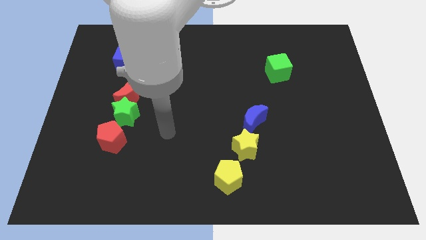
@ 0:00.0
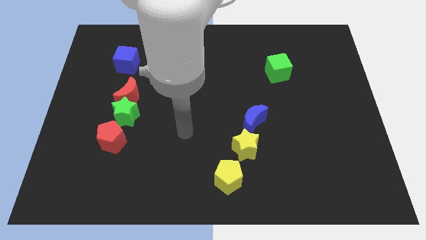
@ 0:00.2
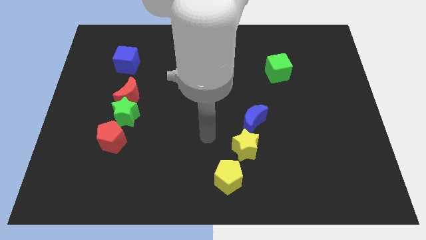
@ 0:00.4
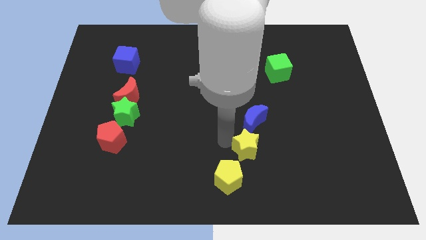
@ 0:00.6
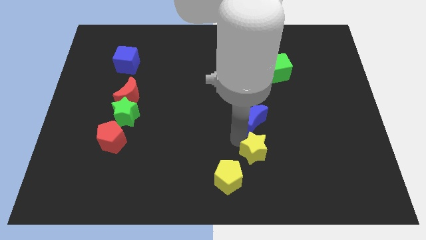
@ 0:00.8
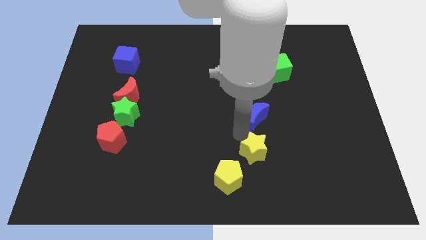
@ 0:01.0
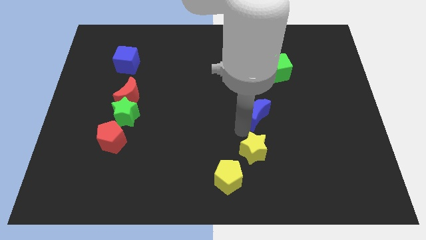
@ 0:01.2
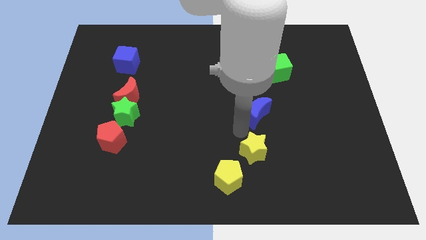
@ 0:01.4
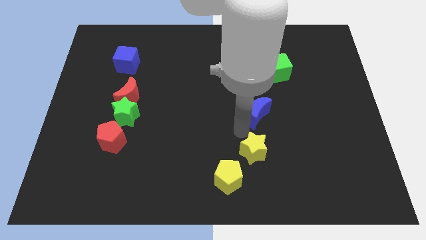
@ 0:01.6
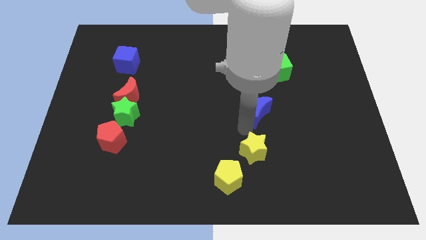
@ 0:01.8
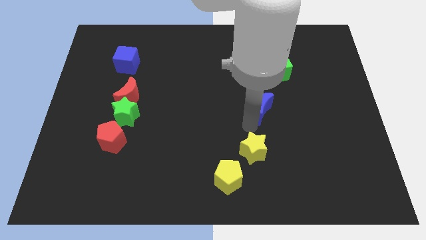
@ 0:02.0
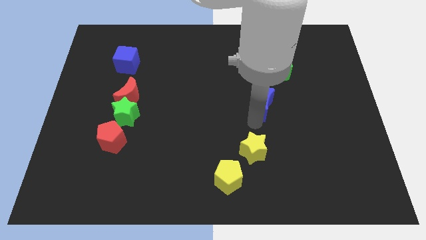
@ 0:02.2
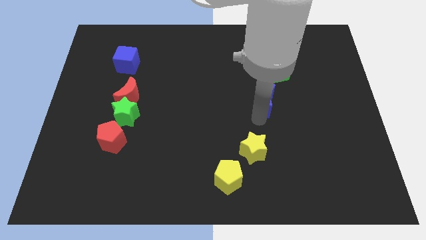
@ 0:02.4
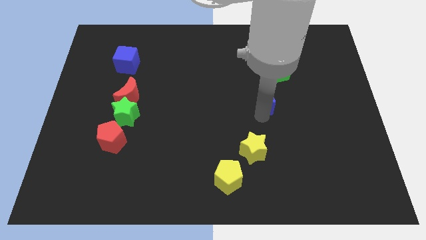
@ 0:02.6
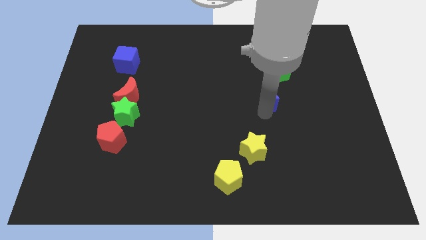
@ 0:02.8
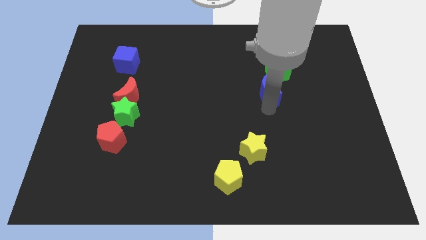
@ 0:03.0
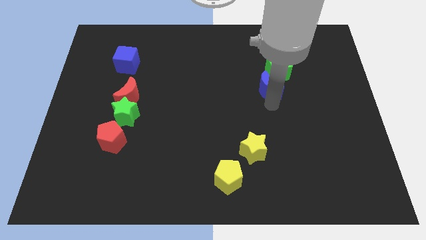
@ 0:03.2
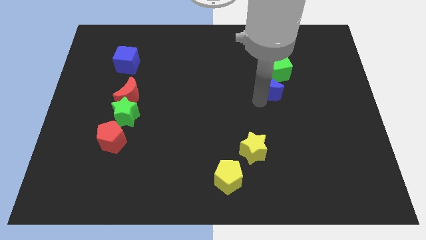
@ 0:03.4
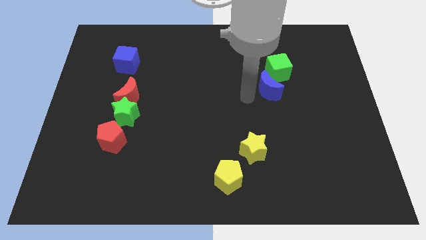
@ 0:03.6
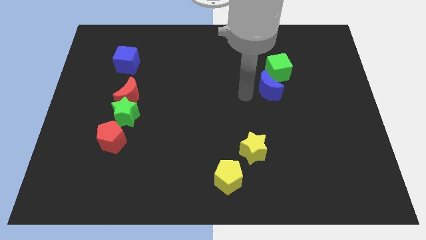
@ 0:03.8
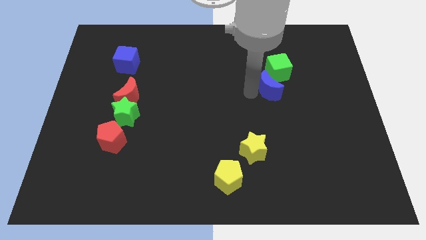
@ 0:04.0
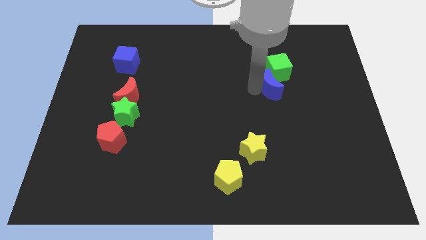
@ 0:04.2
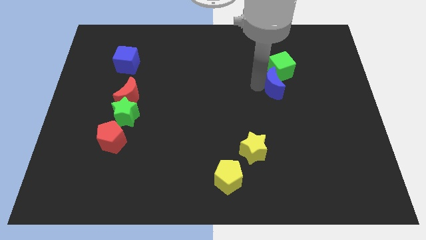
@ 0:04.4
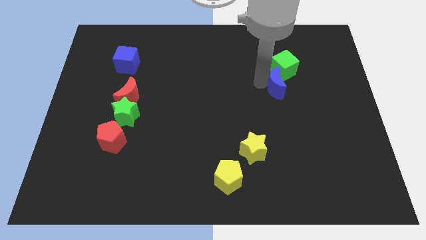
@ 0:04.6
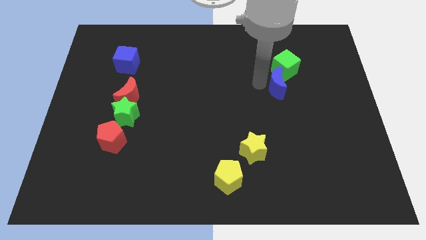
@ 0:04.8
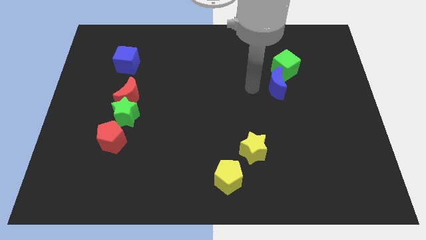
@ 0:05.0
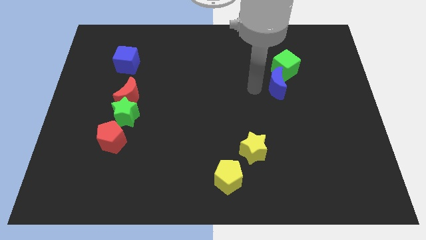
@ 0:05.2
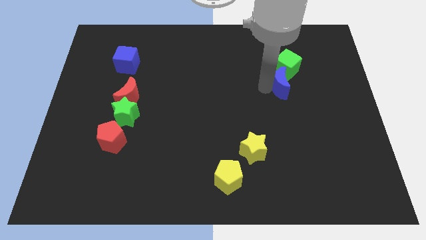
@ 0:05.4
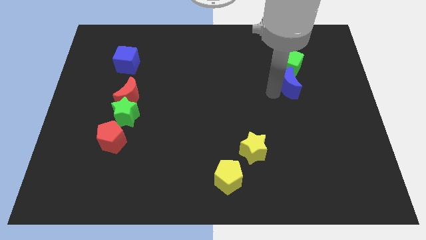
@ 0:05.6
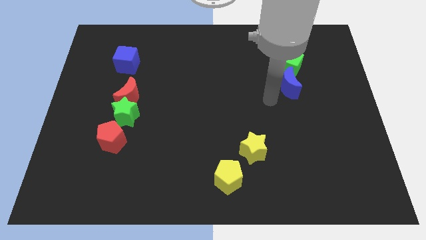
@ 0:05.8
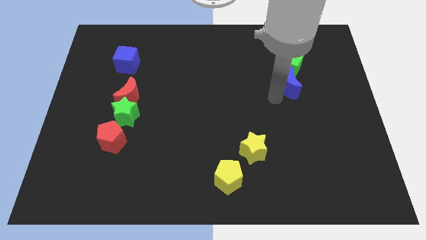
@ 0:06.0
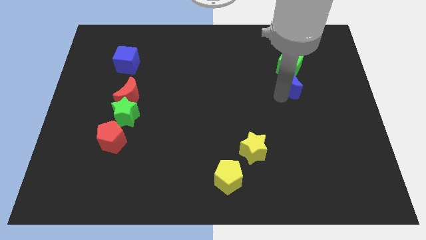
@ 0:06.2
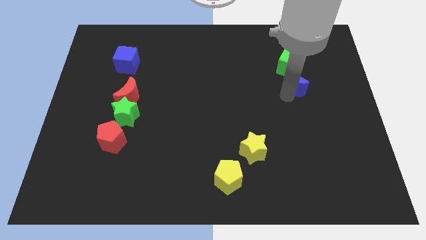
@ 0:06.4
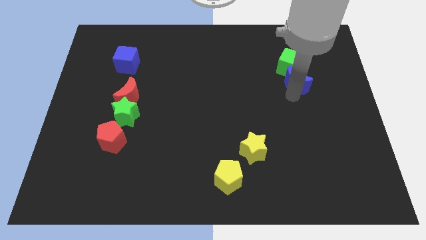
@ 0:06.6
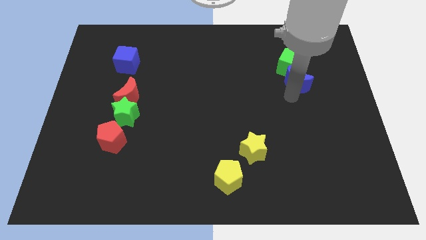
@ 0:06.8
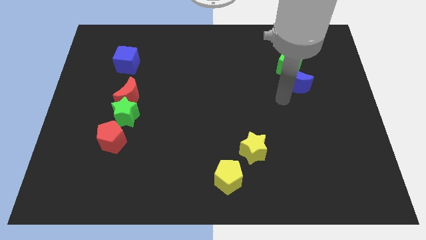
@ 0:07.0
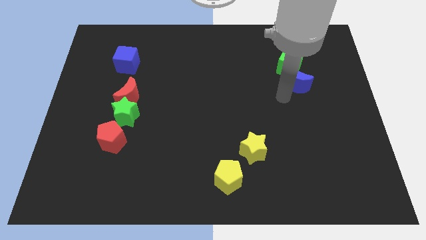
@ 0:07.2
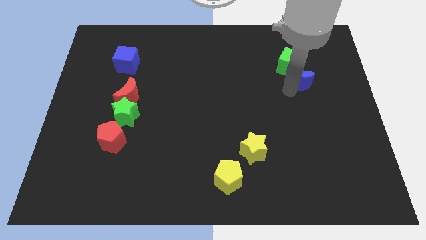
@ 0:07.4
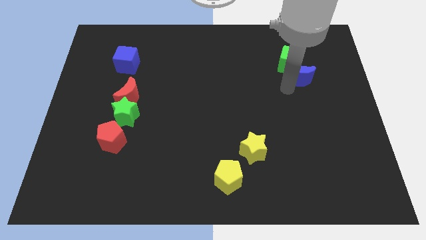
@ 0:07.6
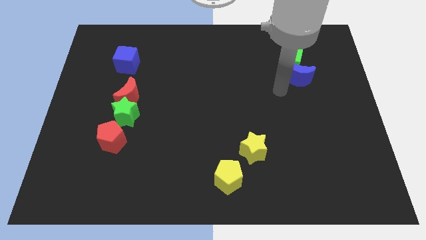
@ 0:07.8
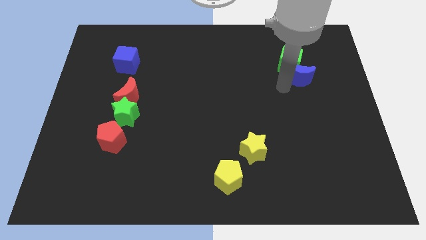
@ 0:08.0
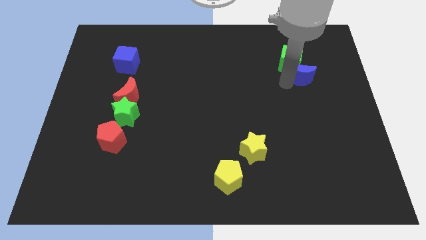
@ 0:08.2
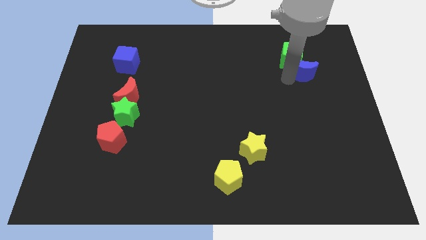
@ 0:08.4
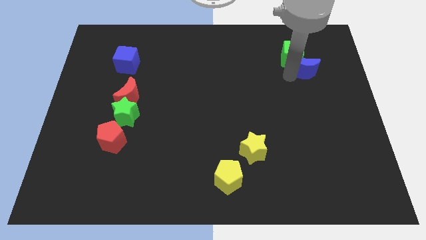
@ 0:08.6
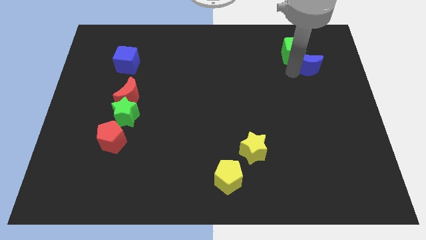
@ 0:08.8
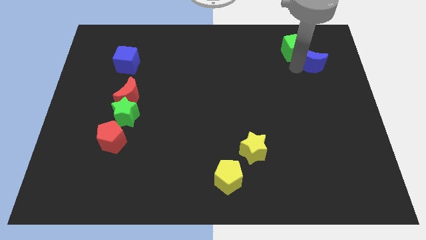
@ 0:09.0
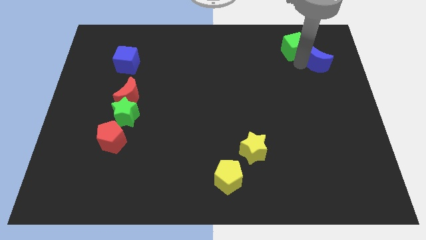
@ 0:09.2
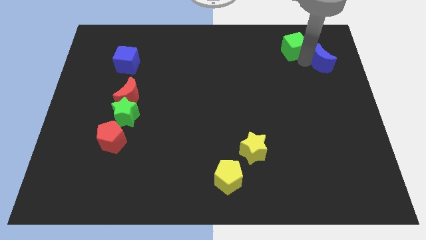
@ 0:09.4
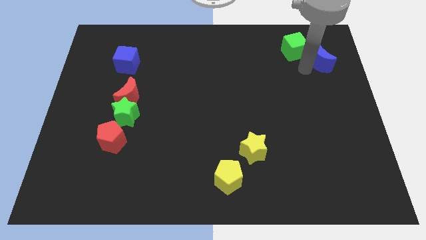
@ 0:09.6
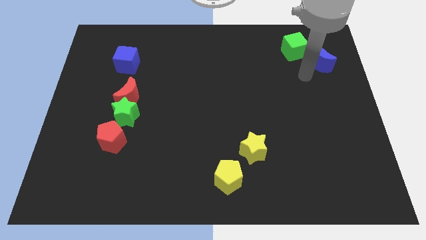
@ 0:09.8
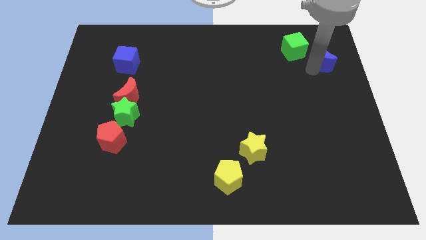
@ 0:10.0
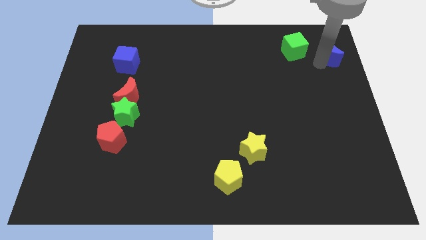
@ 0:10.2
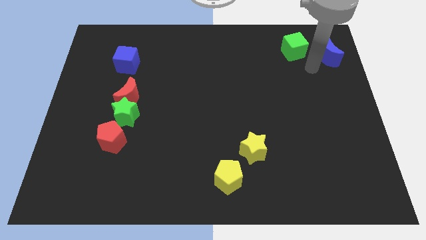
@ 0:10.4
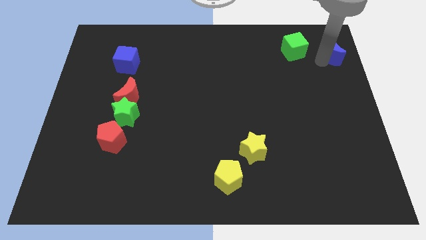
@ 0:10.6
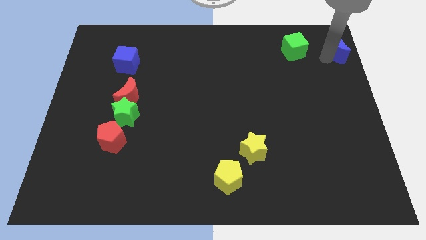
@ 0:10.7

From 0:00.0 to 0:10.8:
put the blue moon to the top right of the board

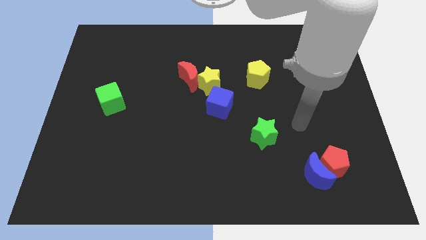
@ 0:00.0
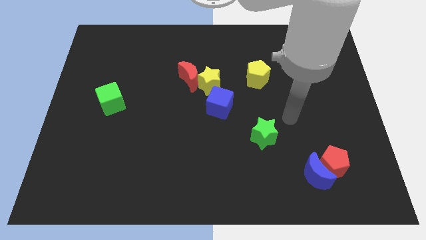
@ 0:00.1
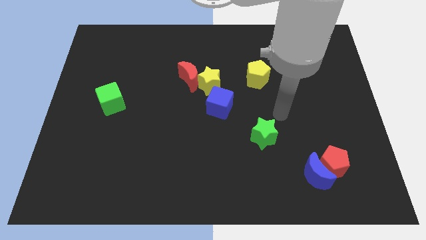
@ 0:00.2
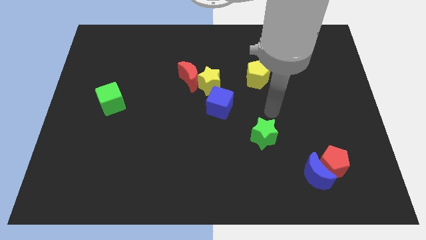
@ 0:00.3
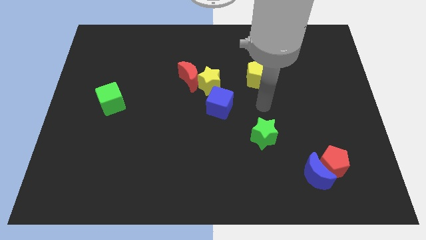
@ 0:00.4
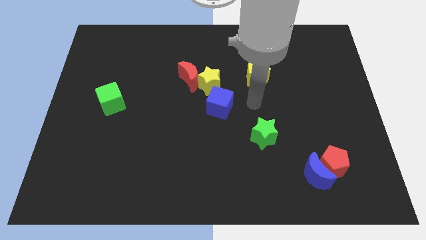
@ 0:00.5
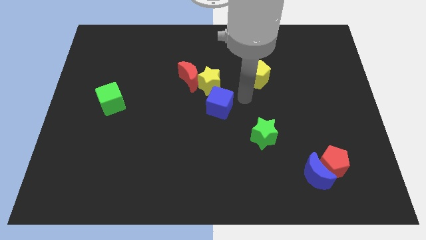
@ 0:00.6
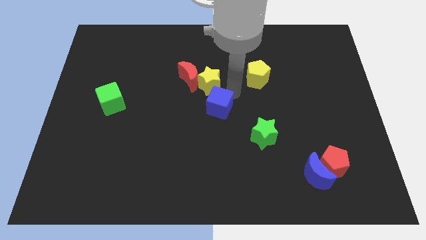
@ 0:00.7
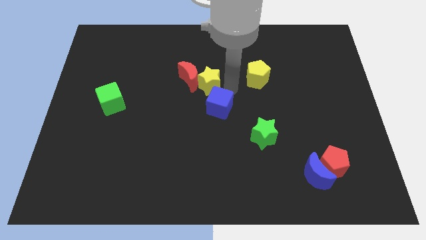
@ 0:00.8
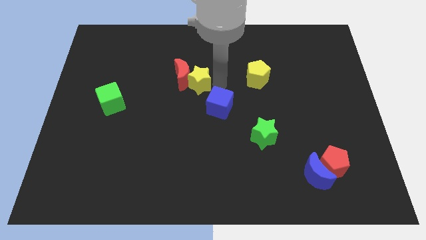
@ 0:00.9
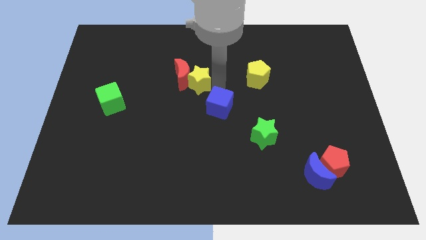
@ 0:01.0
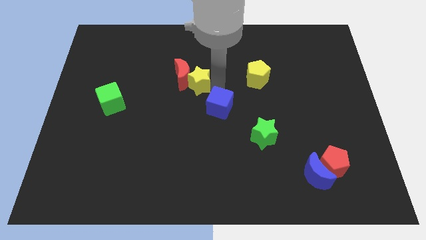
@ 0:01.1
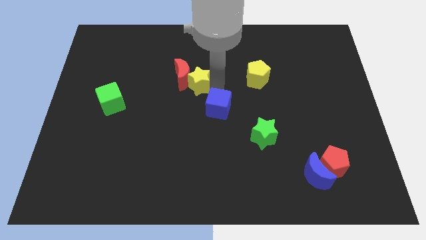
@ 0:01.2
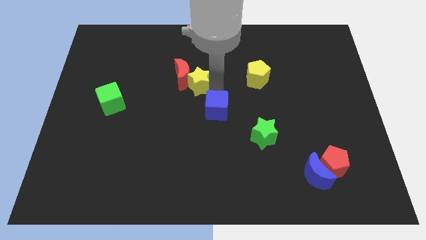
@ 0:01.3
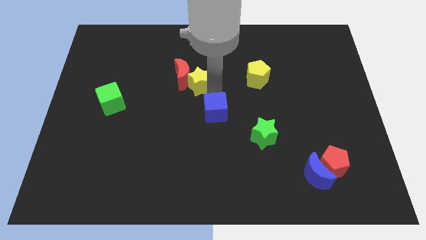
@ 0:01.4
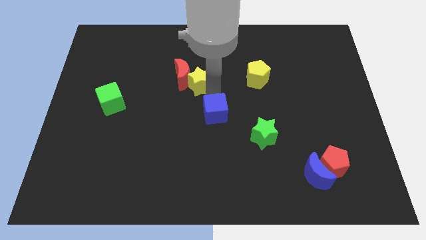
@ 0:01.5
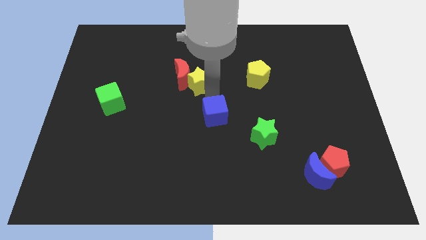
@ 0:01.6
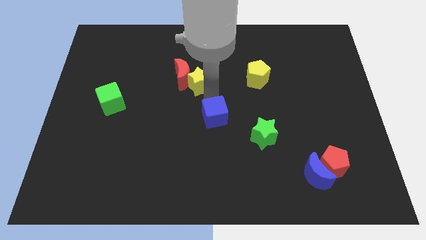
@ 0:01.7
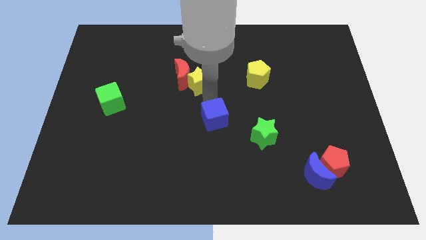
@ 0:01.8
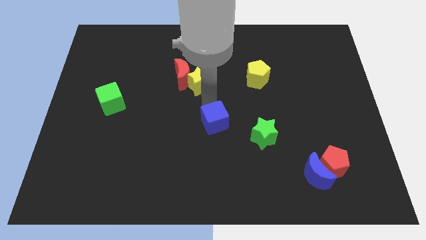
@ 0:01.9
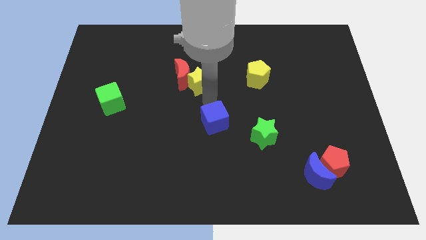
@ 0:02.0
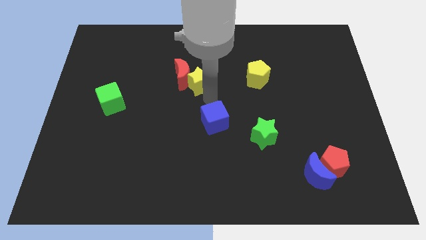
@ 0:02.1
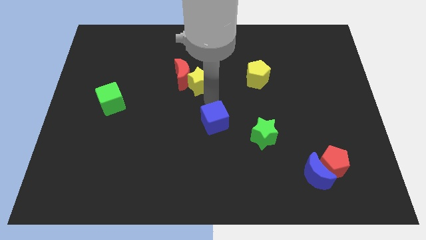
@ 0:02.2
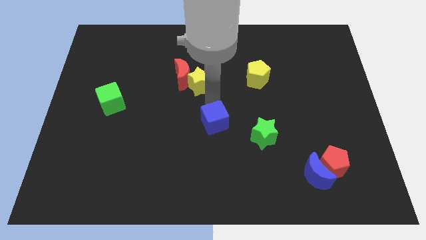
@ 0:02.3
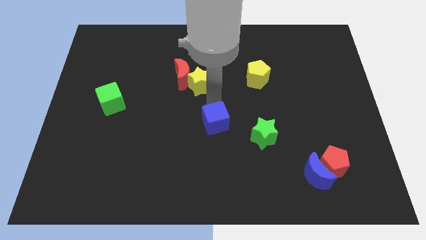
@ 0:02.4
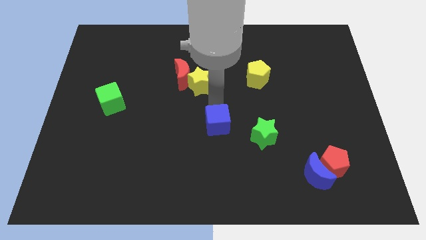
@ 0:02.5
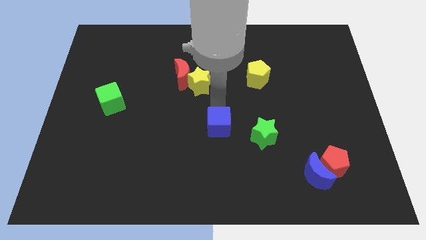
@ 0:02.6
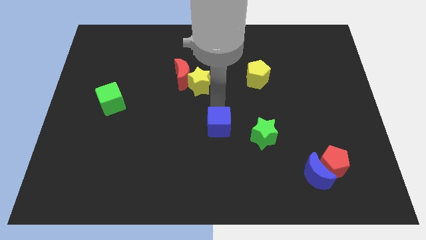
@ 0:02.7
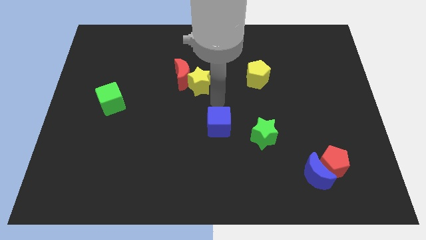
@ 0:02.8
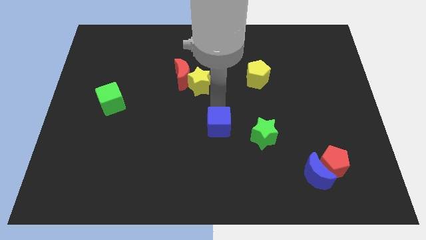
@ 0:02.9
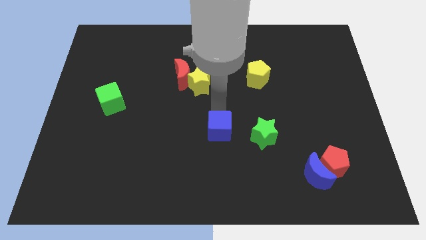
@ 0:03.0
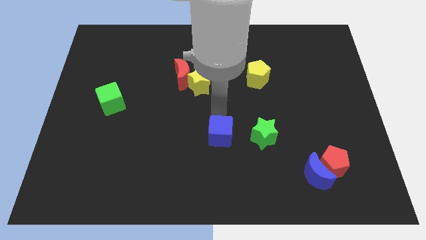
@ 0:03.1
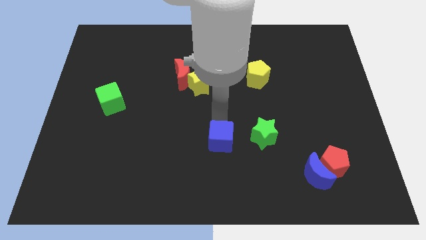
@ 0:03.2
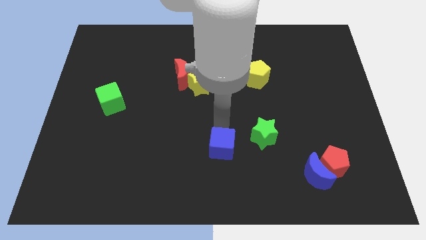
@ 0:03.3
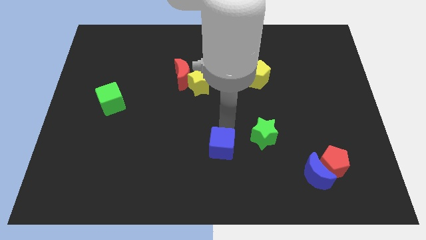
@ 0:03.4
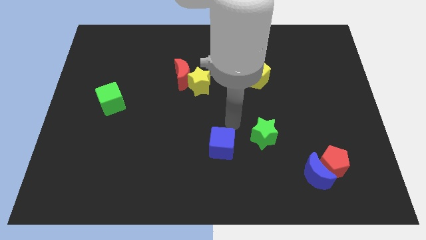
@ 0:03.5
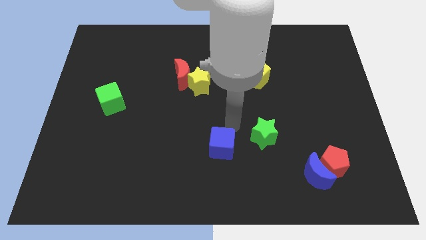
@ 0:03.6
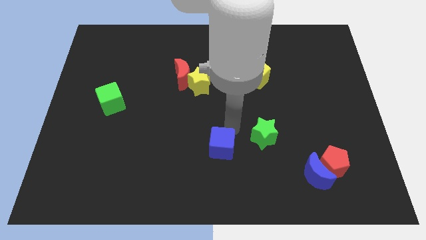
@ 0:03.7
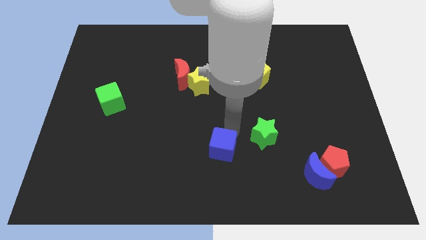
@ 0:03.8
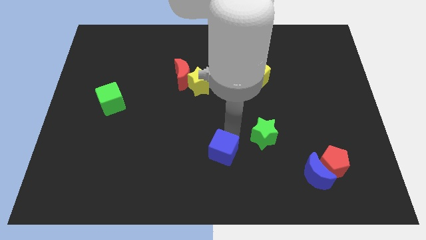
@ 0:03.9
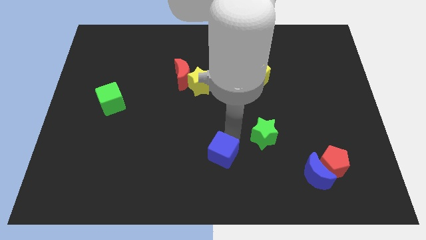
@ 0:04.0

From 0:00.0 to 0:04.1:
put the blue cube to the bottom
